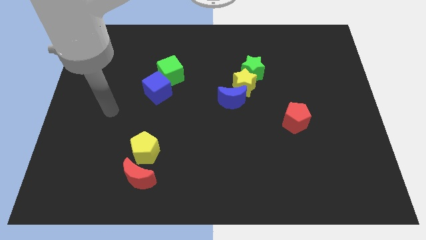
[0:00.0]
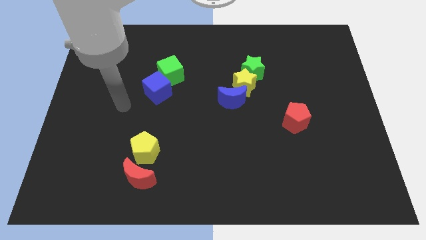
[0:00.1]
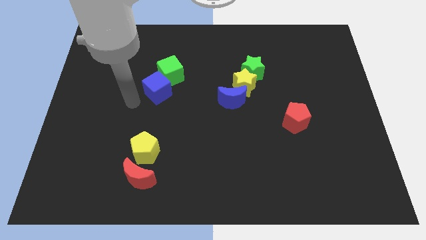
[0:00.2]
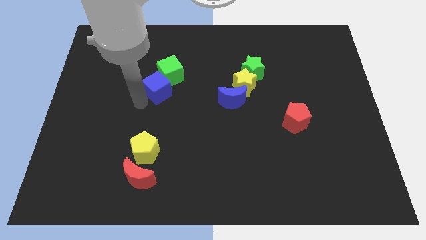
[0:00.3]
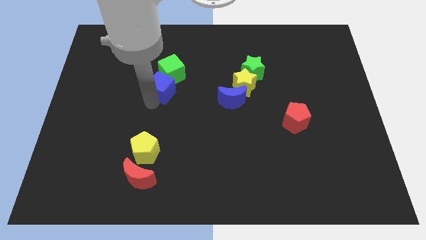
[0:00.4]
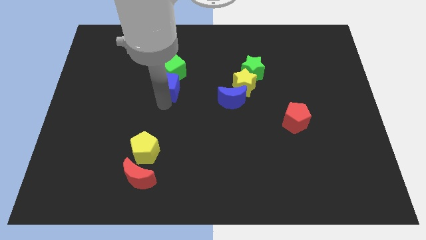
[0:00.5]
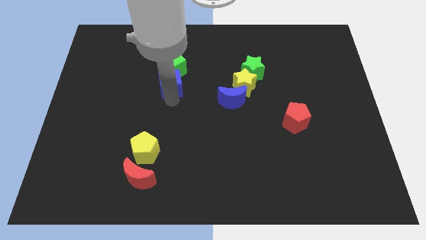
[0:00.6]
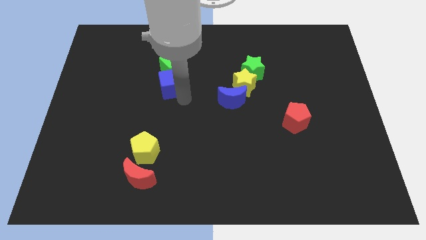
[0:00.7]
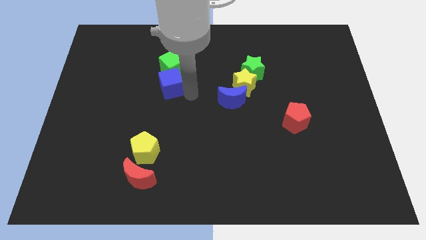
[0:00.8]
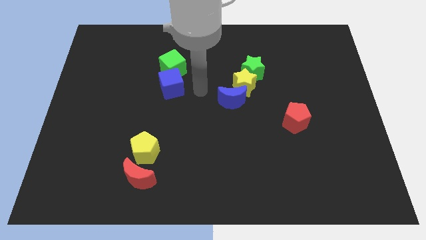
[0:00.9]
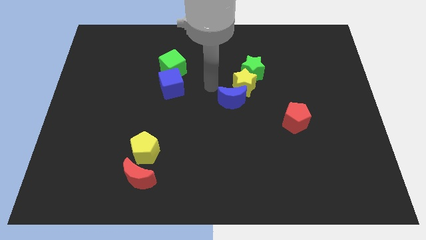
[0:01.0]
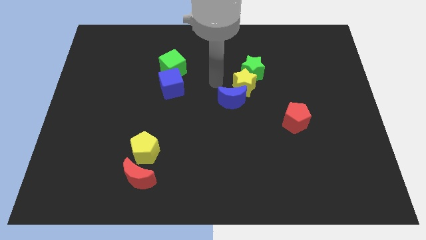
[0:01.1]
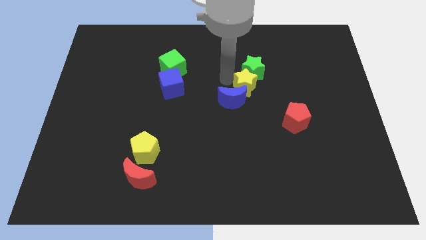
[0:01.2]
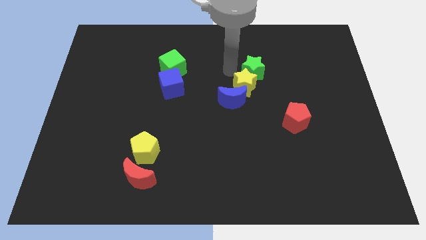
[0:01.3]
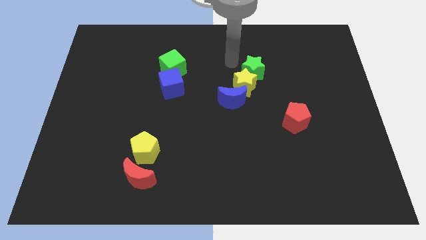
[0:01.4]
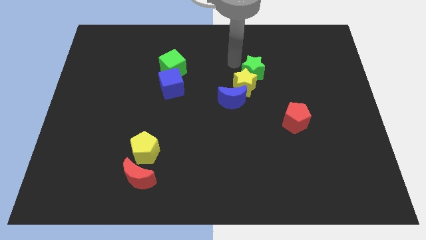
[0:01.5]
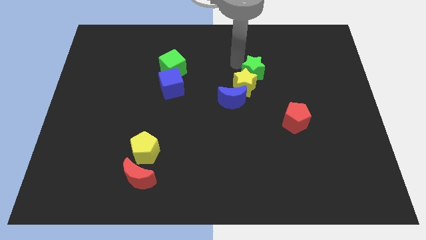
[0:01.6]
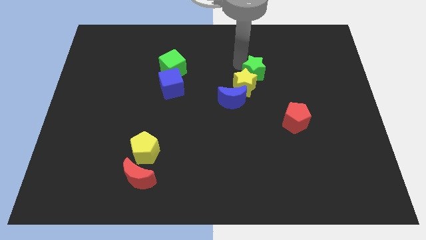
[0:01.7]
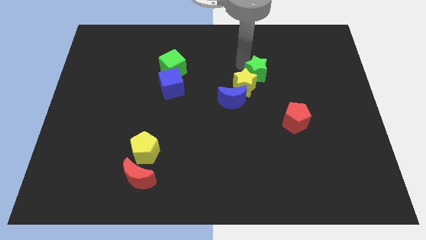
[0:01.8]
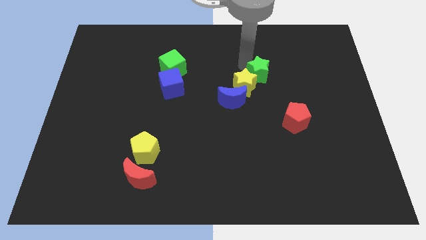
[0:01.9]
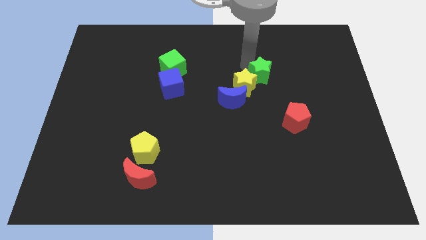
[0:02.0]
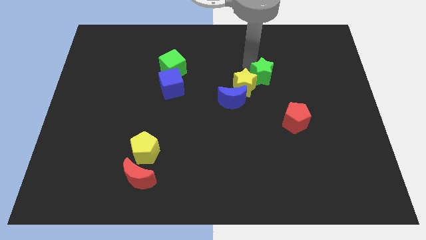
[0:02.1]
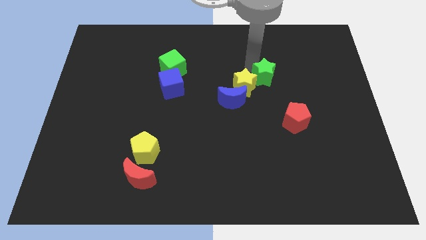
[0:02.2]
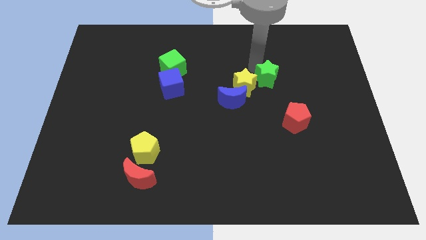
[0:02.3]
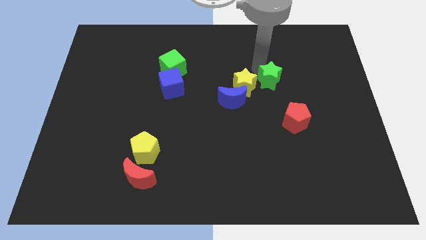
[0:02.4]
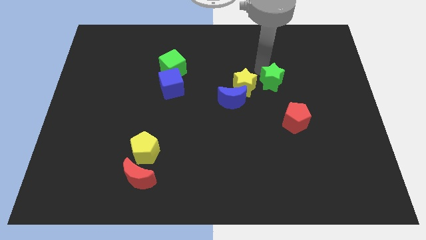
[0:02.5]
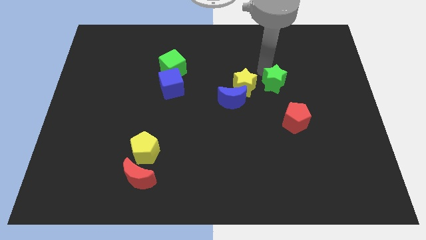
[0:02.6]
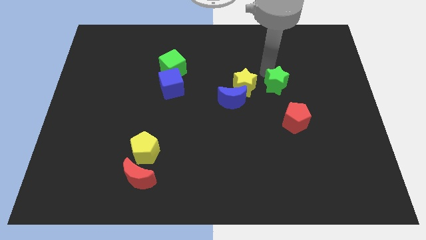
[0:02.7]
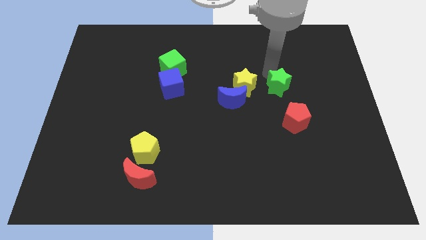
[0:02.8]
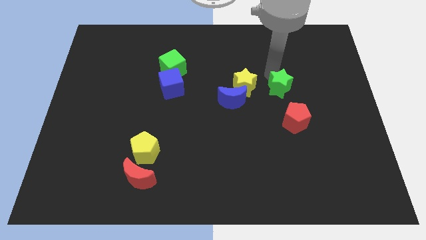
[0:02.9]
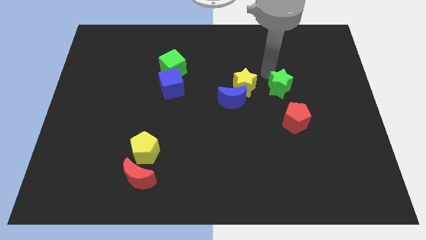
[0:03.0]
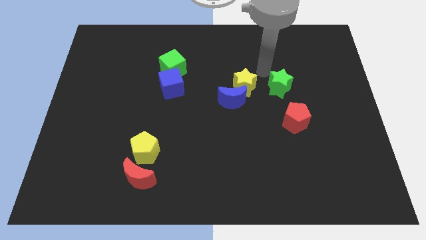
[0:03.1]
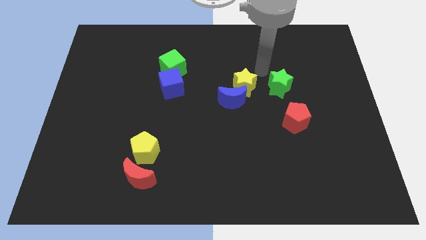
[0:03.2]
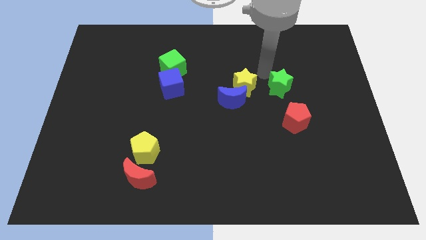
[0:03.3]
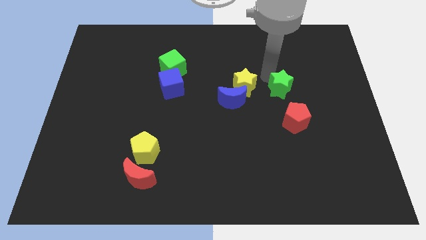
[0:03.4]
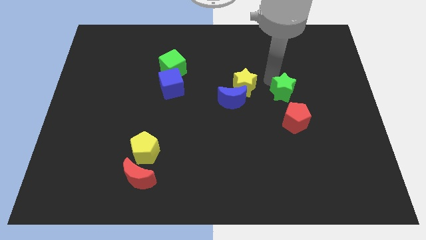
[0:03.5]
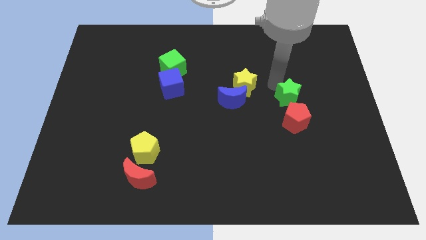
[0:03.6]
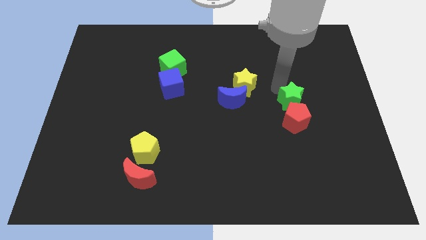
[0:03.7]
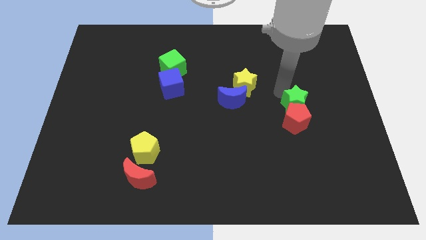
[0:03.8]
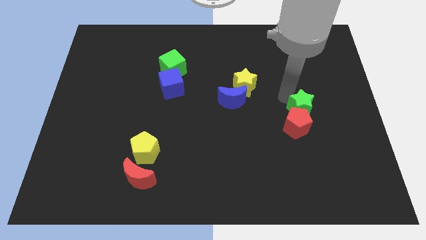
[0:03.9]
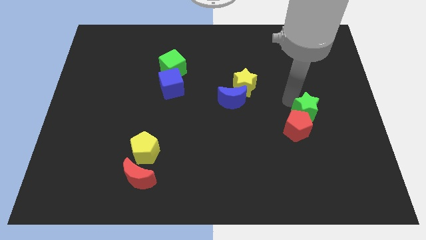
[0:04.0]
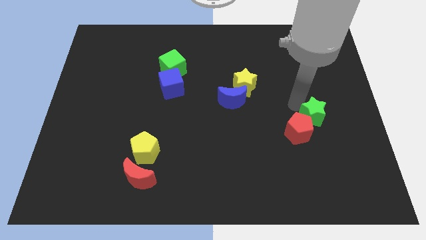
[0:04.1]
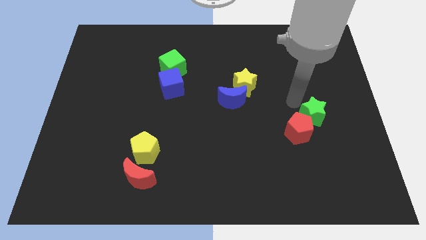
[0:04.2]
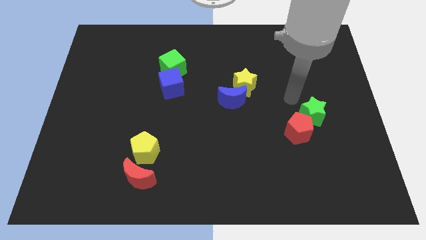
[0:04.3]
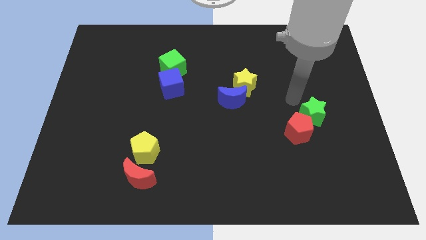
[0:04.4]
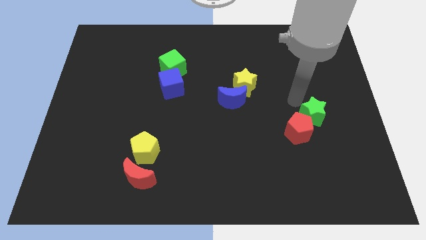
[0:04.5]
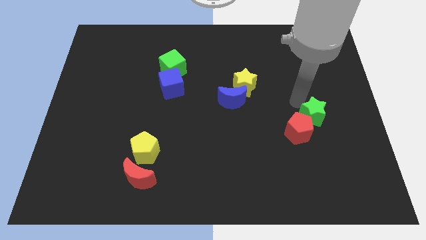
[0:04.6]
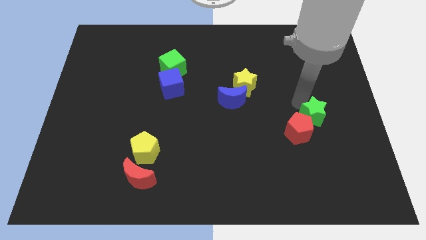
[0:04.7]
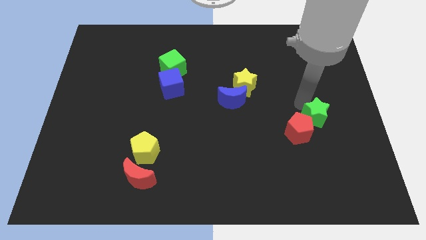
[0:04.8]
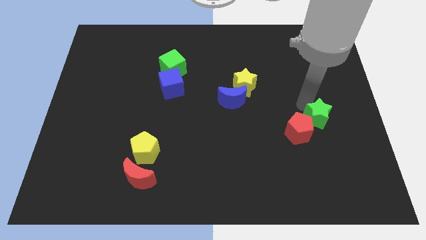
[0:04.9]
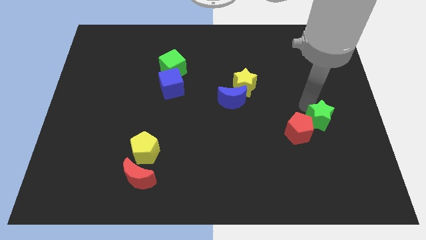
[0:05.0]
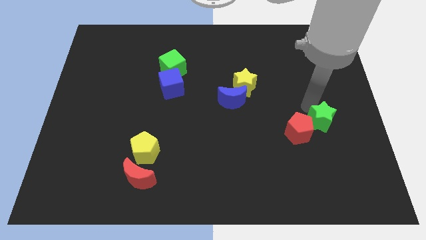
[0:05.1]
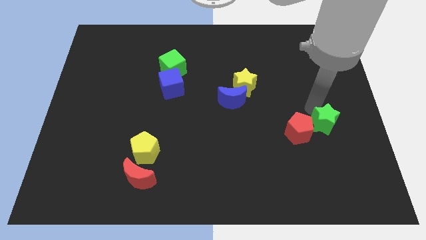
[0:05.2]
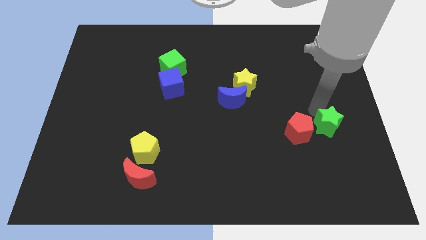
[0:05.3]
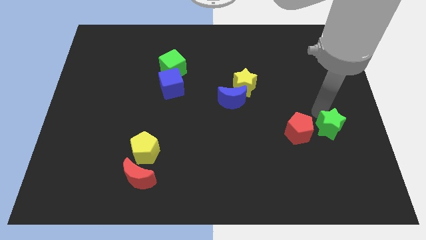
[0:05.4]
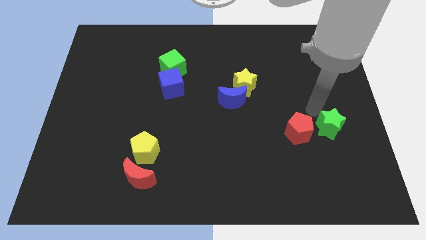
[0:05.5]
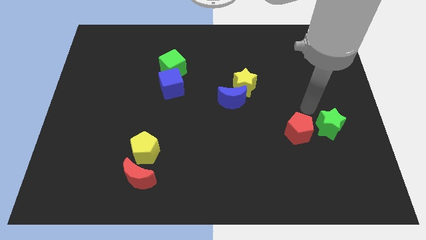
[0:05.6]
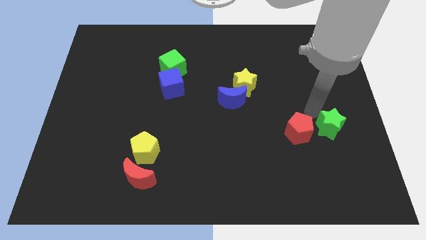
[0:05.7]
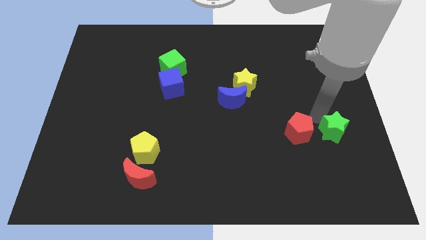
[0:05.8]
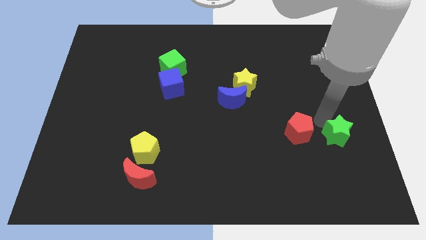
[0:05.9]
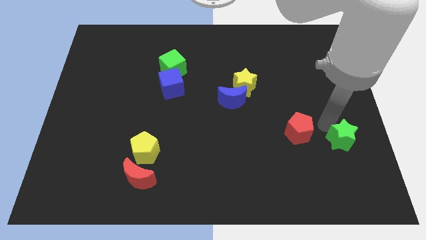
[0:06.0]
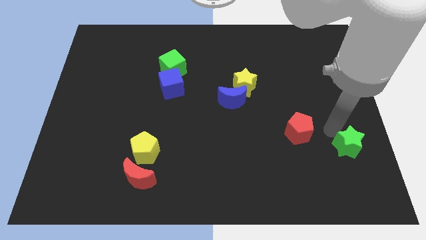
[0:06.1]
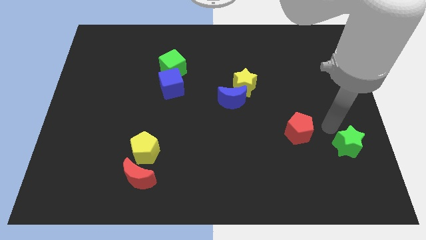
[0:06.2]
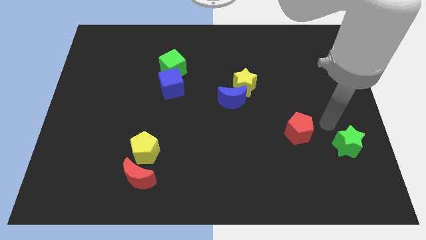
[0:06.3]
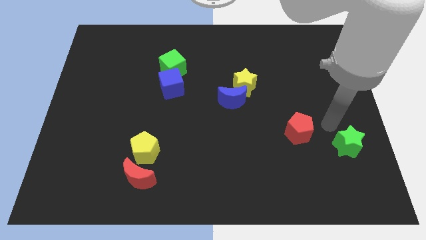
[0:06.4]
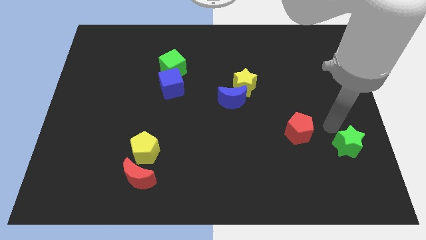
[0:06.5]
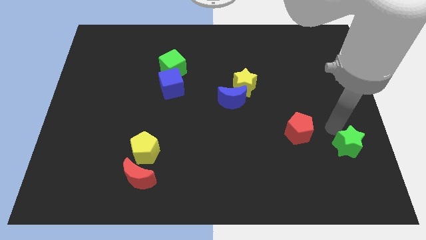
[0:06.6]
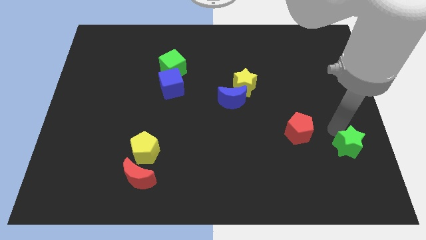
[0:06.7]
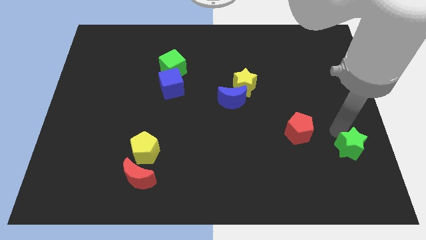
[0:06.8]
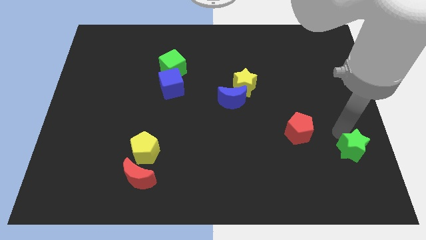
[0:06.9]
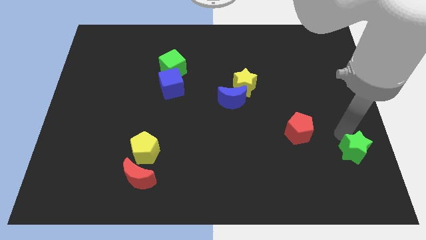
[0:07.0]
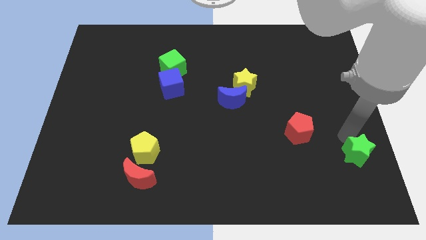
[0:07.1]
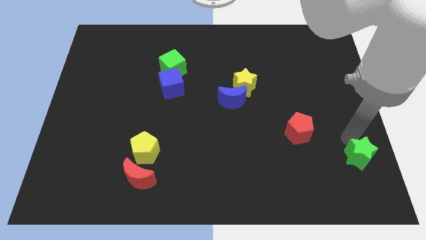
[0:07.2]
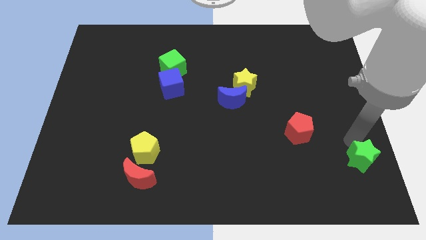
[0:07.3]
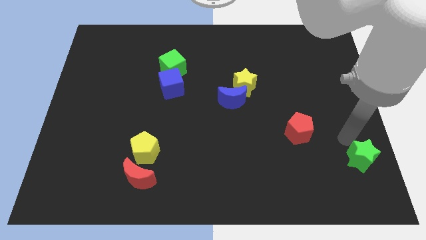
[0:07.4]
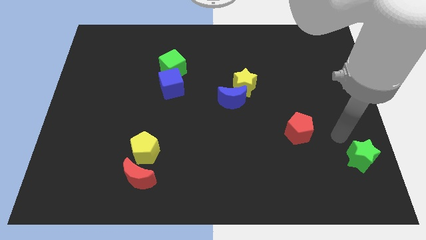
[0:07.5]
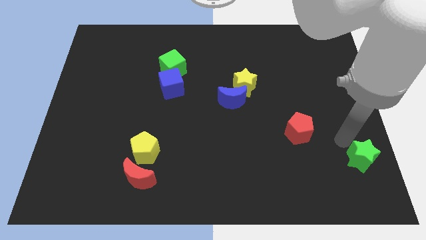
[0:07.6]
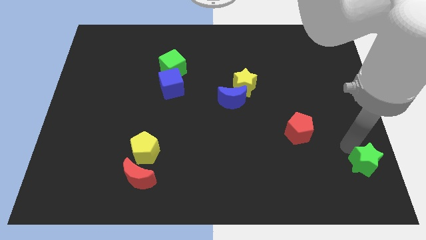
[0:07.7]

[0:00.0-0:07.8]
move the green star to the bottom right
